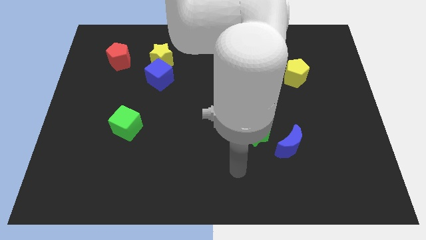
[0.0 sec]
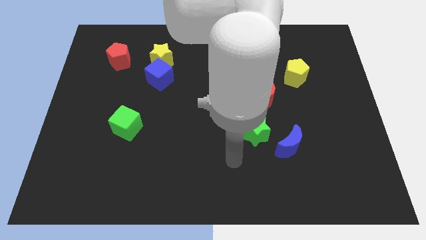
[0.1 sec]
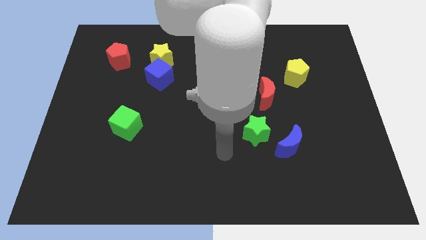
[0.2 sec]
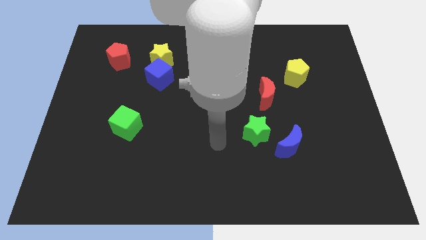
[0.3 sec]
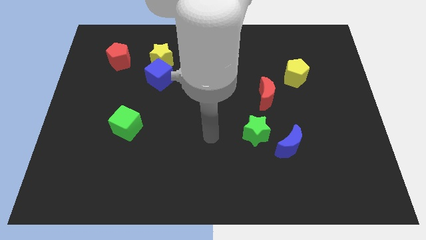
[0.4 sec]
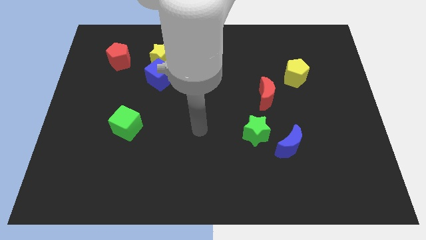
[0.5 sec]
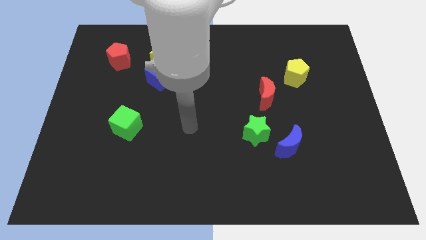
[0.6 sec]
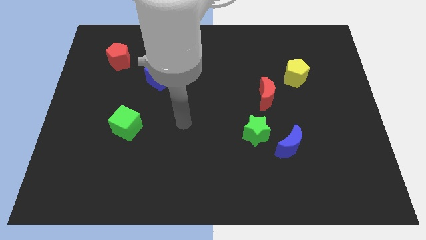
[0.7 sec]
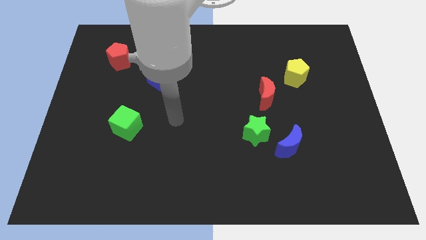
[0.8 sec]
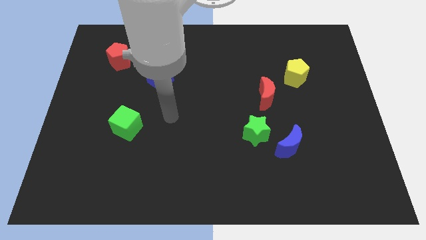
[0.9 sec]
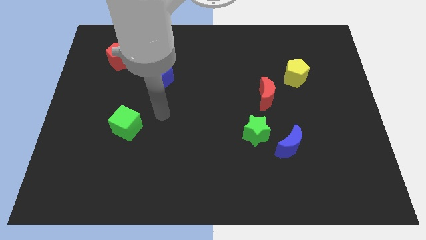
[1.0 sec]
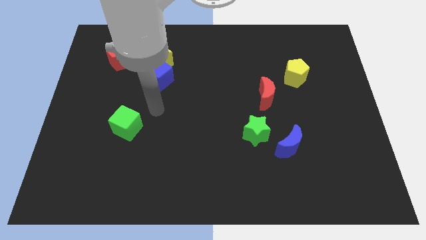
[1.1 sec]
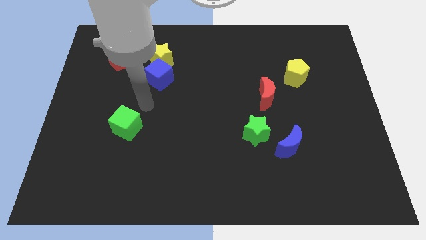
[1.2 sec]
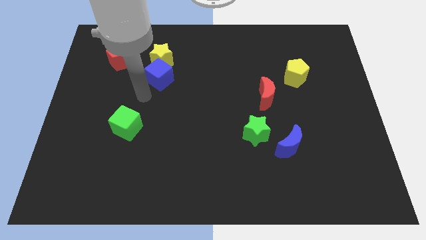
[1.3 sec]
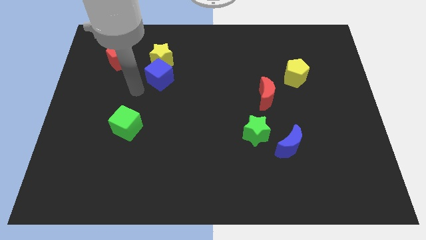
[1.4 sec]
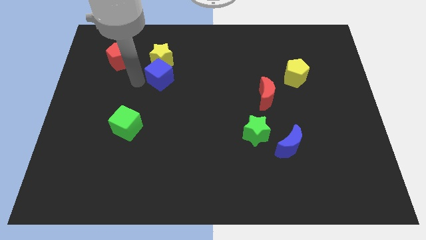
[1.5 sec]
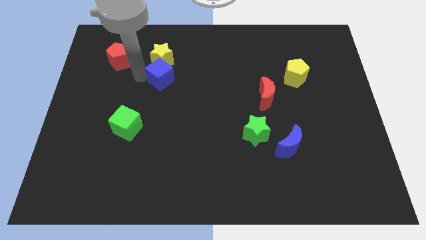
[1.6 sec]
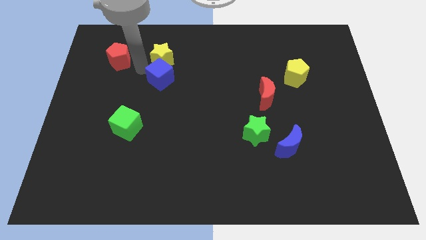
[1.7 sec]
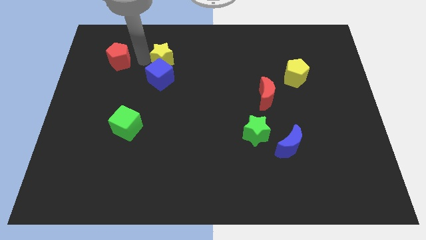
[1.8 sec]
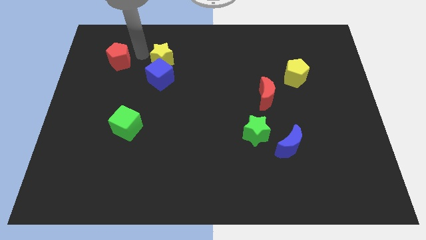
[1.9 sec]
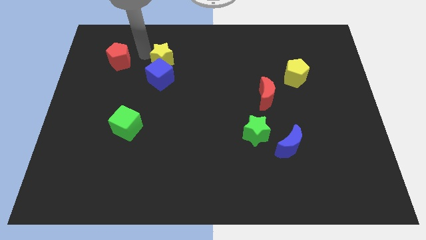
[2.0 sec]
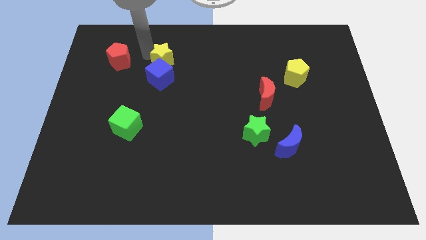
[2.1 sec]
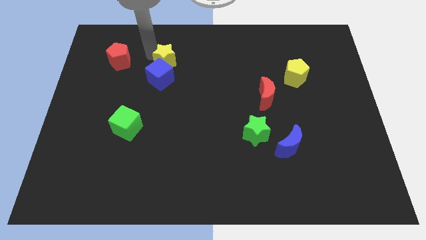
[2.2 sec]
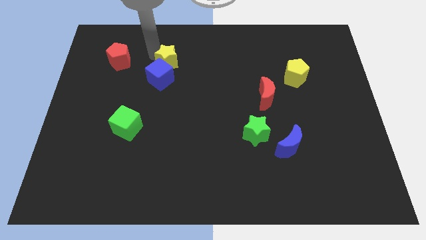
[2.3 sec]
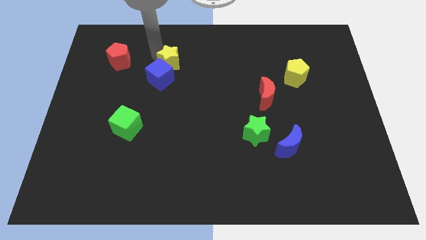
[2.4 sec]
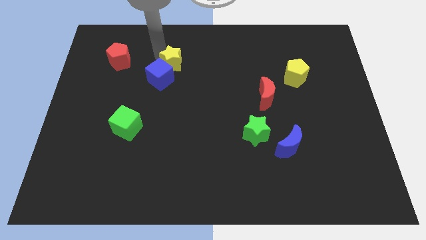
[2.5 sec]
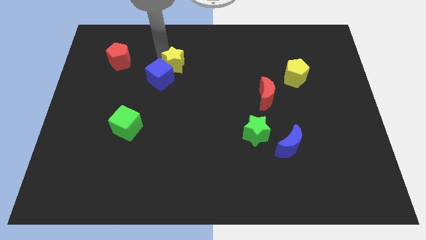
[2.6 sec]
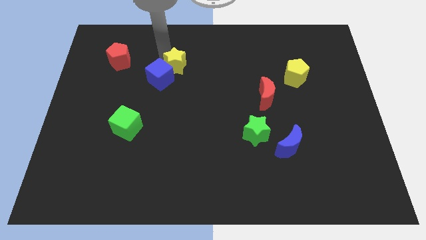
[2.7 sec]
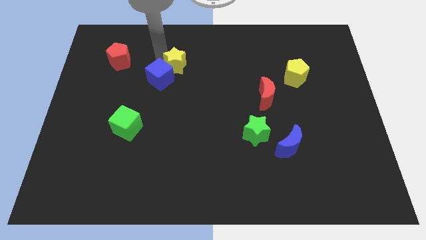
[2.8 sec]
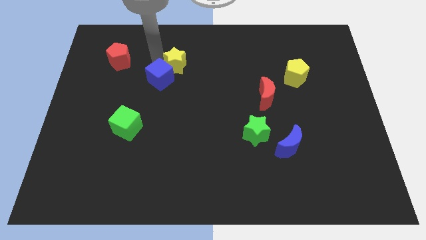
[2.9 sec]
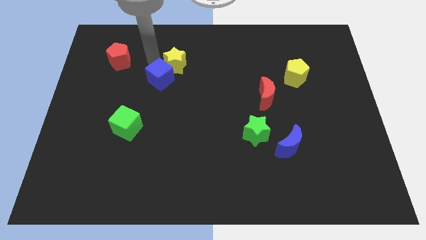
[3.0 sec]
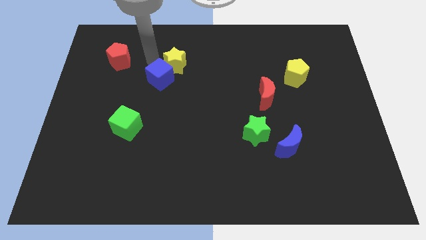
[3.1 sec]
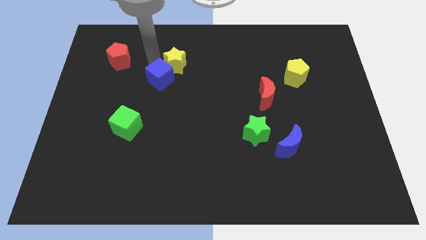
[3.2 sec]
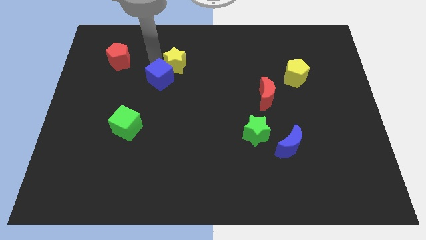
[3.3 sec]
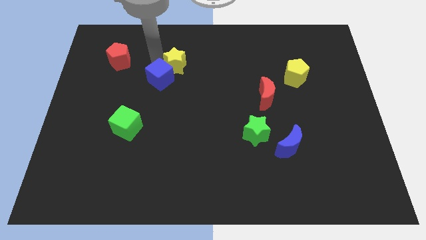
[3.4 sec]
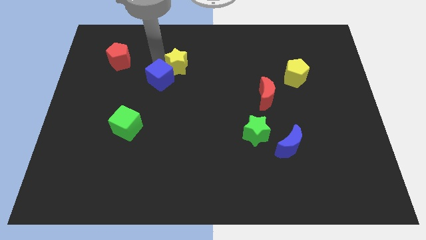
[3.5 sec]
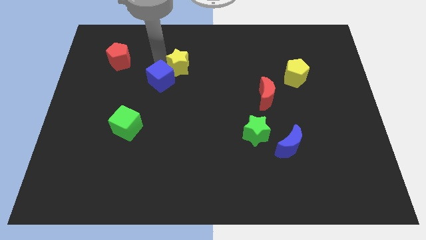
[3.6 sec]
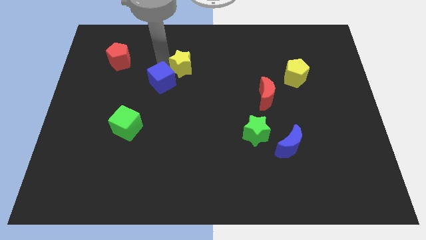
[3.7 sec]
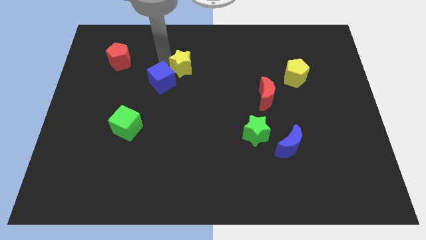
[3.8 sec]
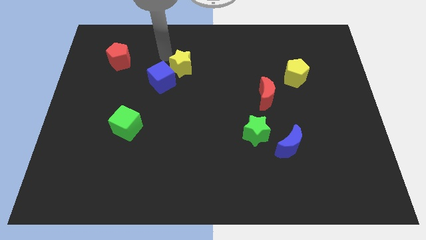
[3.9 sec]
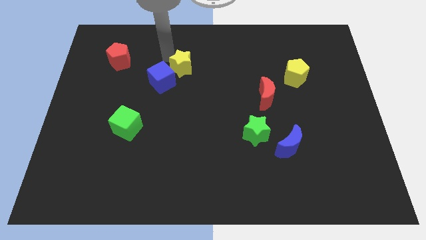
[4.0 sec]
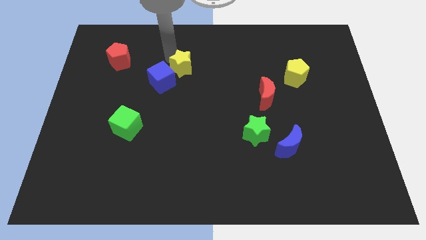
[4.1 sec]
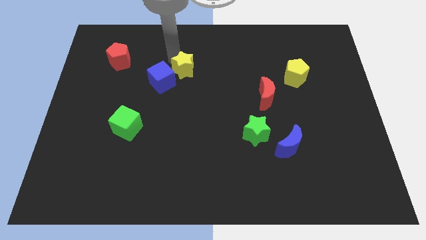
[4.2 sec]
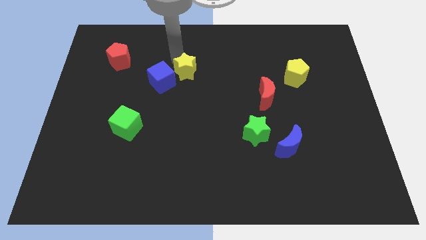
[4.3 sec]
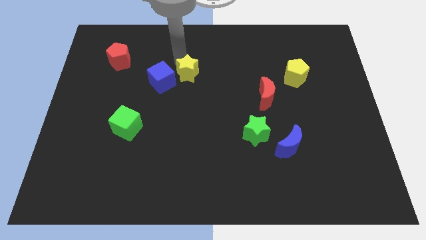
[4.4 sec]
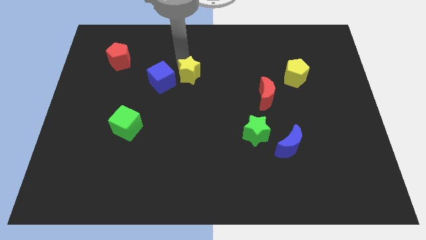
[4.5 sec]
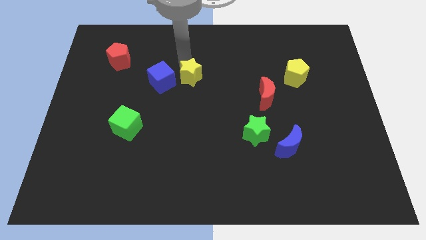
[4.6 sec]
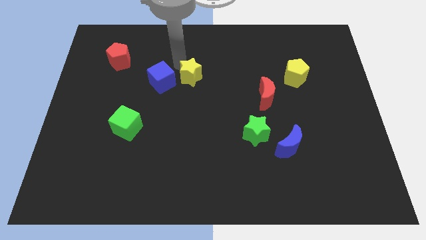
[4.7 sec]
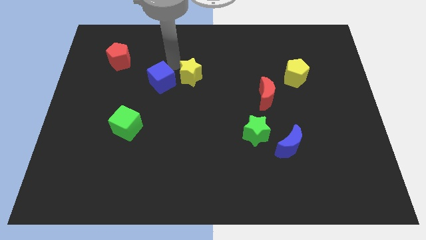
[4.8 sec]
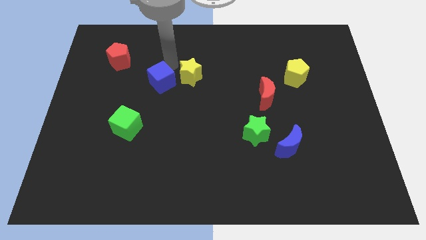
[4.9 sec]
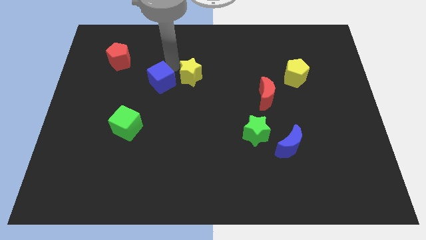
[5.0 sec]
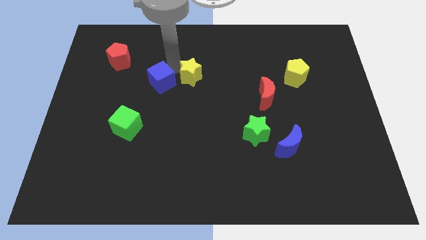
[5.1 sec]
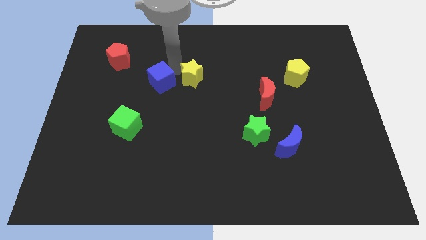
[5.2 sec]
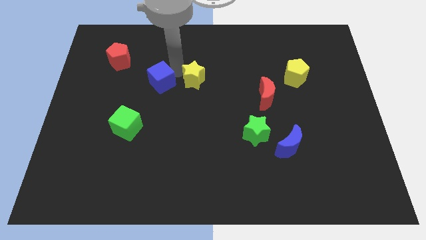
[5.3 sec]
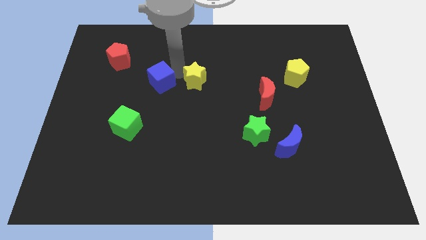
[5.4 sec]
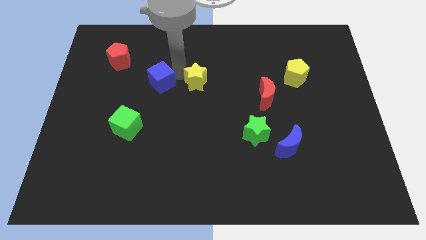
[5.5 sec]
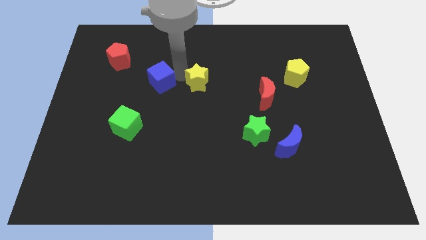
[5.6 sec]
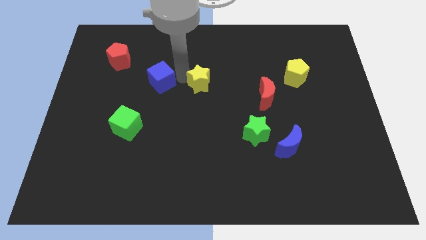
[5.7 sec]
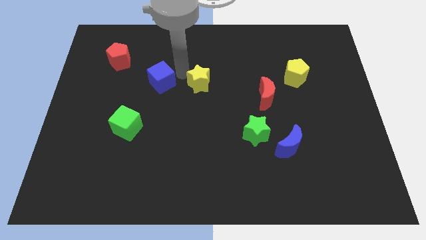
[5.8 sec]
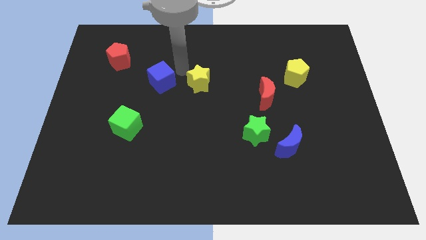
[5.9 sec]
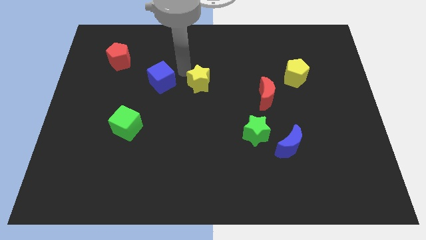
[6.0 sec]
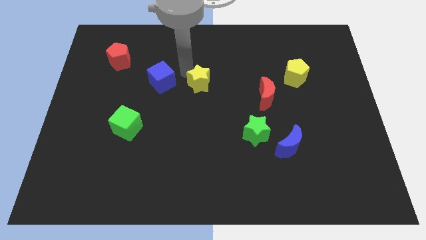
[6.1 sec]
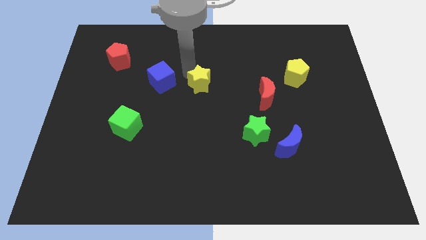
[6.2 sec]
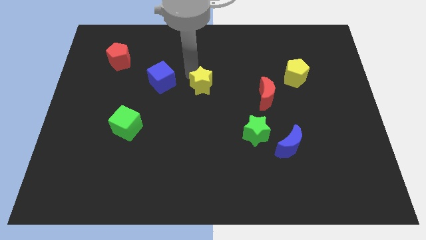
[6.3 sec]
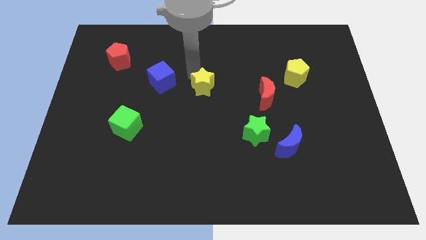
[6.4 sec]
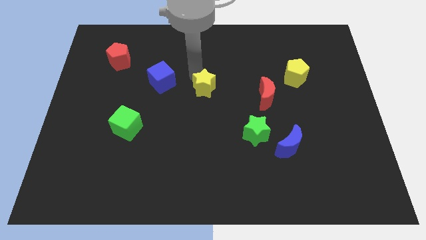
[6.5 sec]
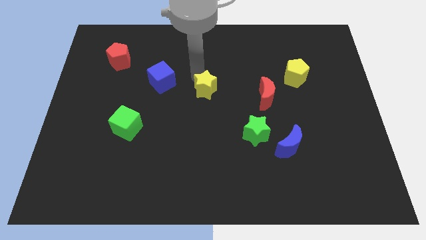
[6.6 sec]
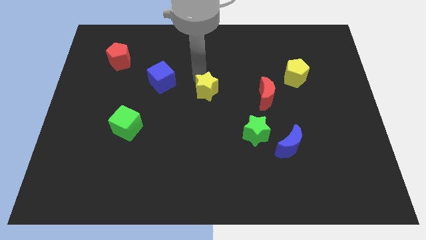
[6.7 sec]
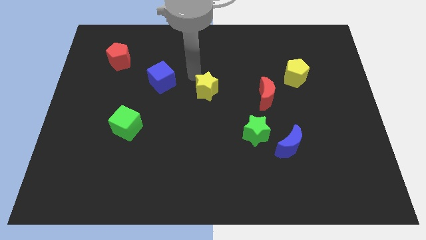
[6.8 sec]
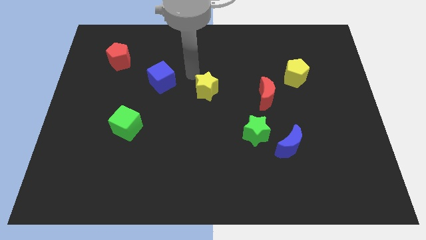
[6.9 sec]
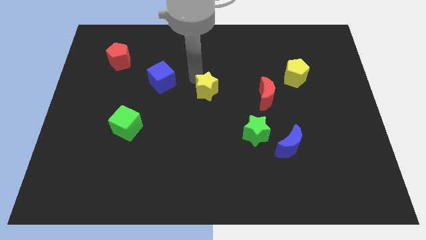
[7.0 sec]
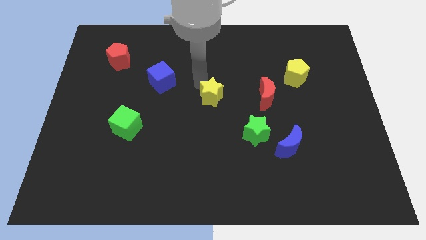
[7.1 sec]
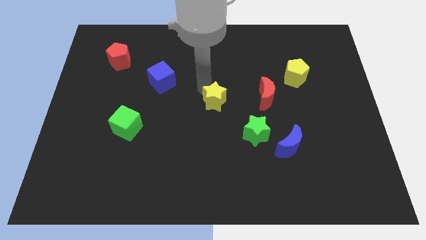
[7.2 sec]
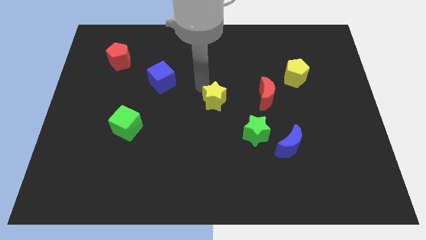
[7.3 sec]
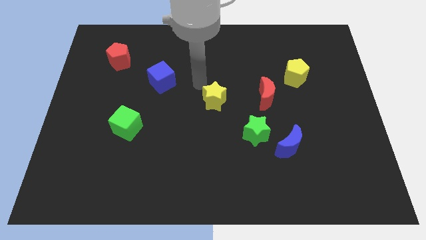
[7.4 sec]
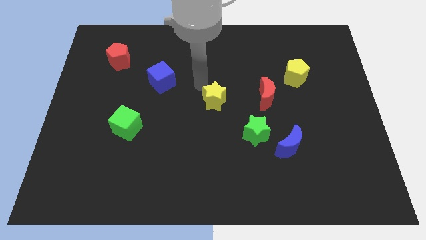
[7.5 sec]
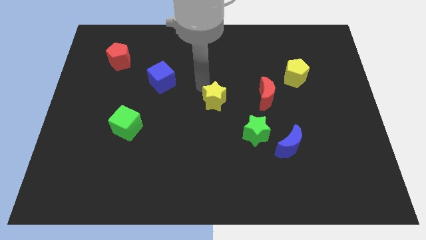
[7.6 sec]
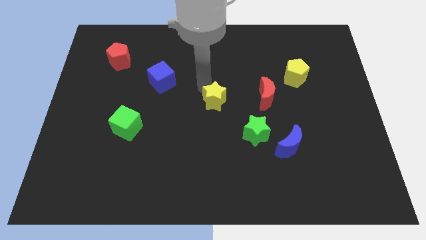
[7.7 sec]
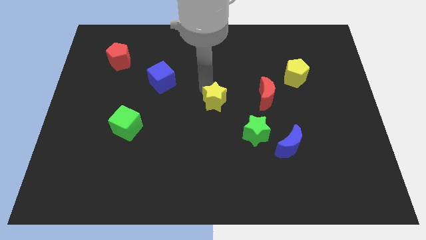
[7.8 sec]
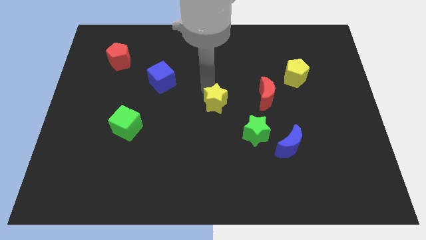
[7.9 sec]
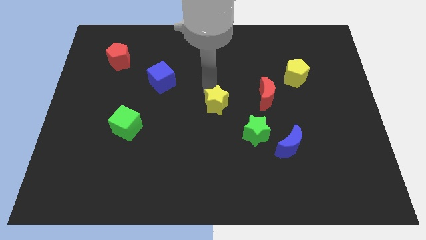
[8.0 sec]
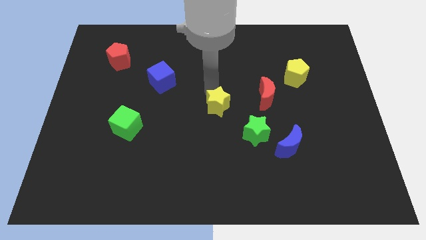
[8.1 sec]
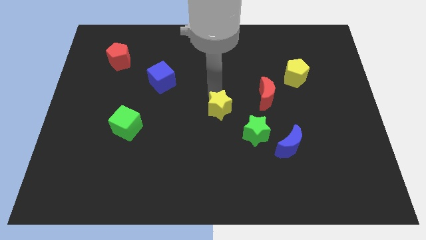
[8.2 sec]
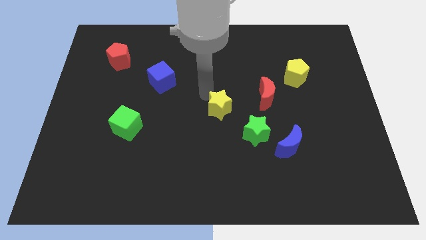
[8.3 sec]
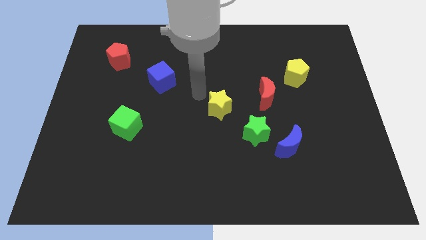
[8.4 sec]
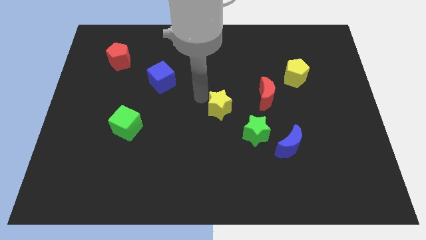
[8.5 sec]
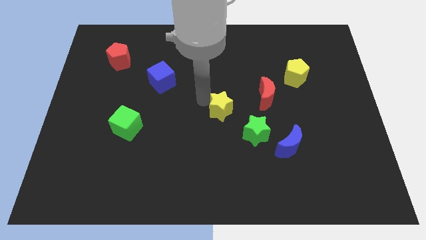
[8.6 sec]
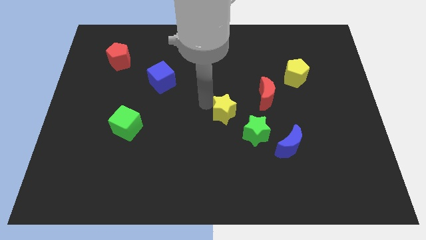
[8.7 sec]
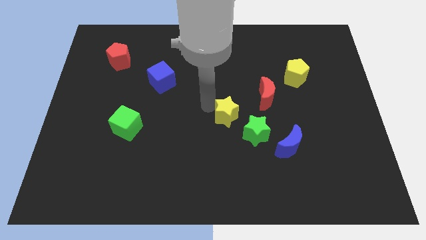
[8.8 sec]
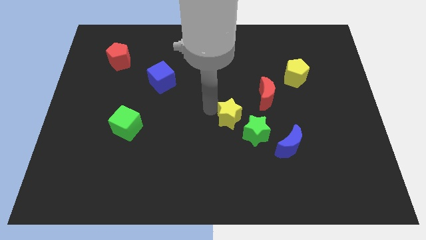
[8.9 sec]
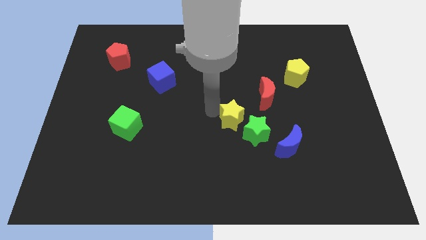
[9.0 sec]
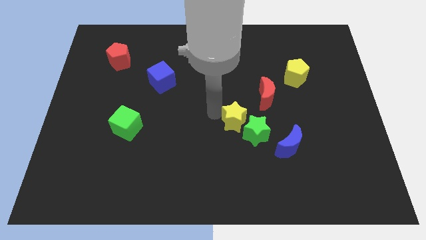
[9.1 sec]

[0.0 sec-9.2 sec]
move the yellow star towards the green star
